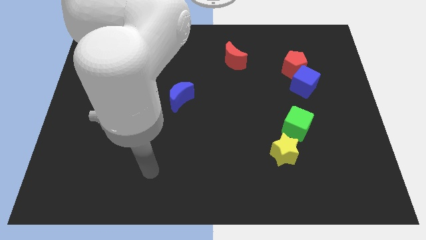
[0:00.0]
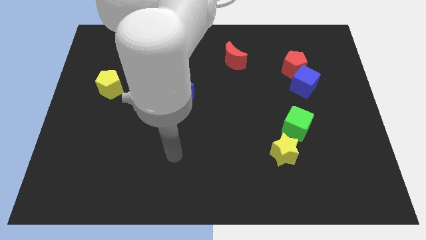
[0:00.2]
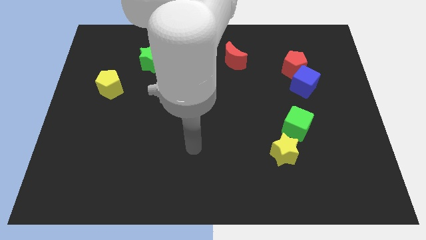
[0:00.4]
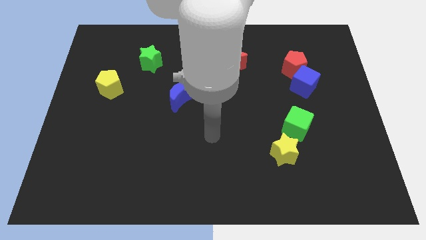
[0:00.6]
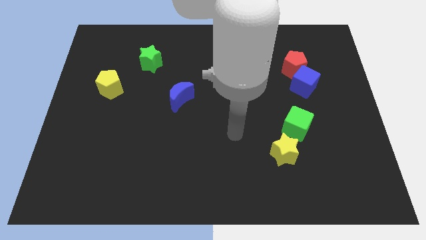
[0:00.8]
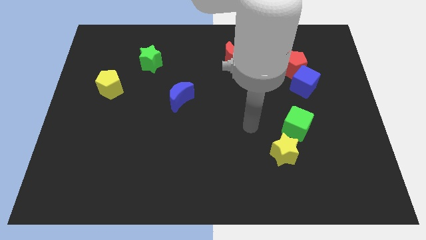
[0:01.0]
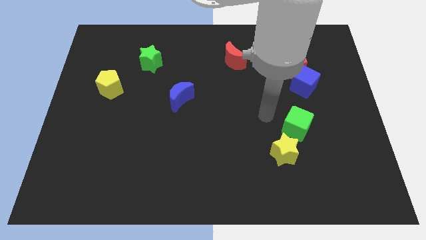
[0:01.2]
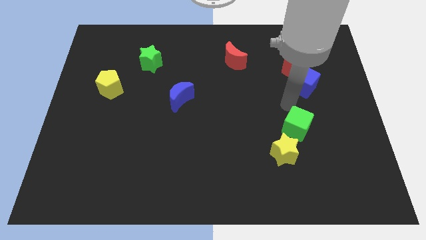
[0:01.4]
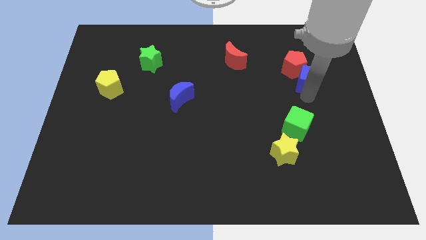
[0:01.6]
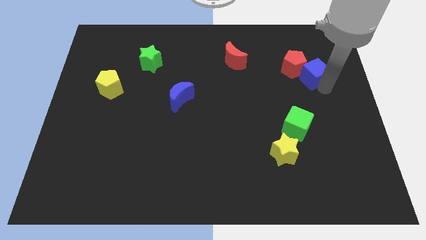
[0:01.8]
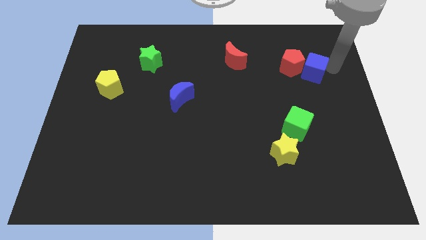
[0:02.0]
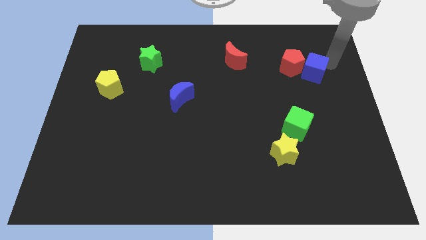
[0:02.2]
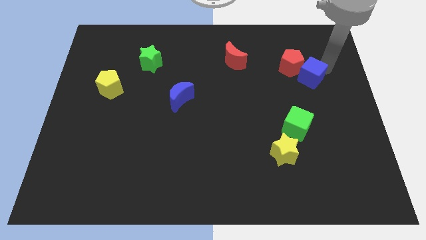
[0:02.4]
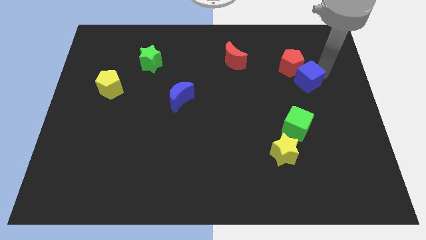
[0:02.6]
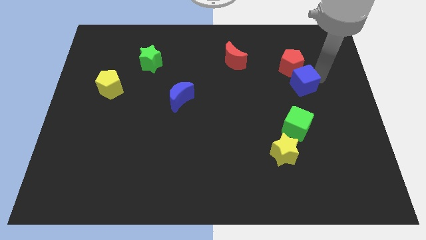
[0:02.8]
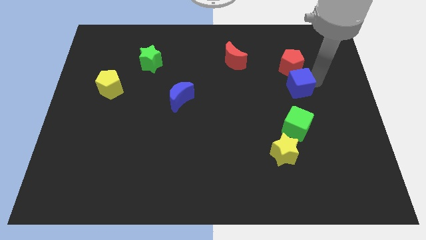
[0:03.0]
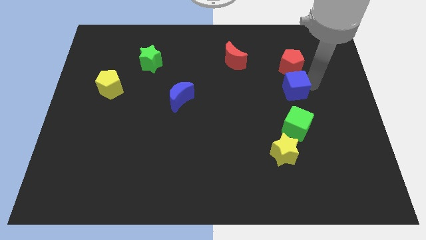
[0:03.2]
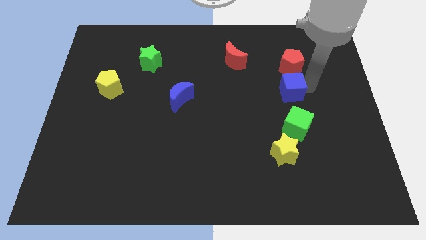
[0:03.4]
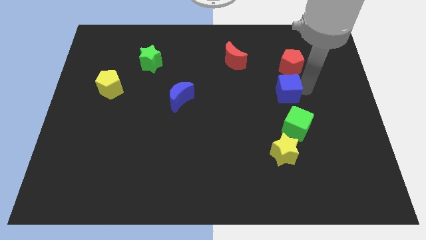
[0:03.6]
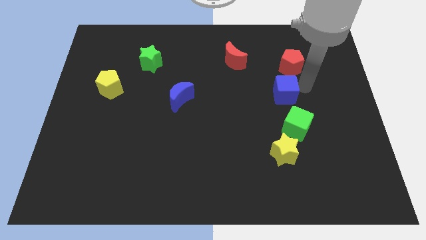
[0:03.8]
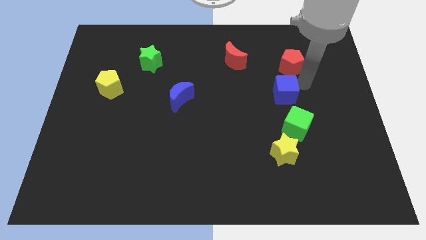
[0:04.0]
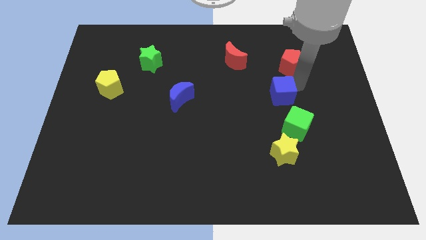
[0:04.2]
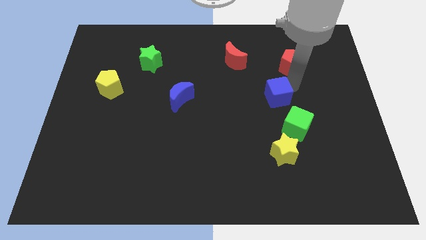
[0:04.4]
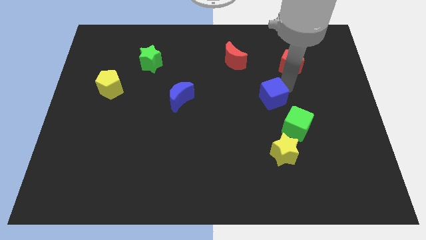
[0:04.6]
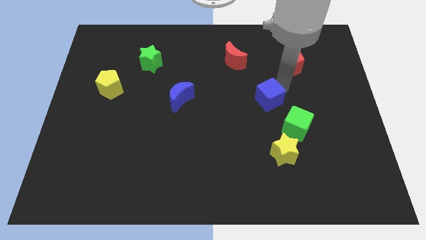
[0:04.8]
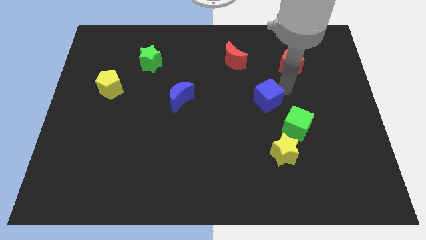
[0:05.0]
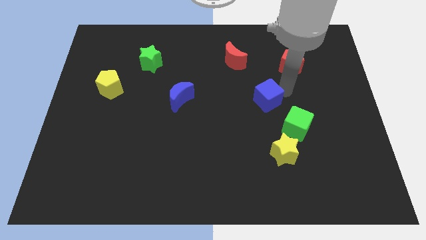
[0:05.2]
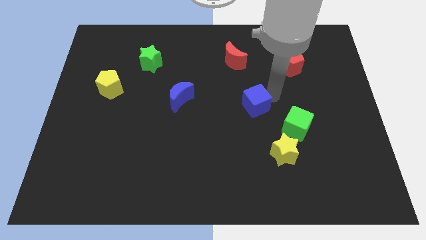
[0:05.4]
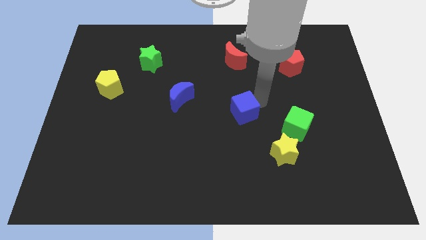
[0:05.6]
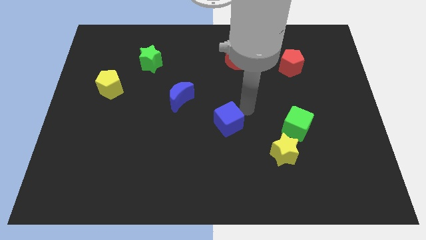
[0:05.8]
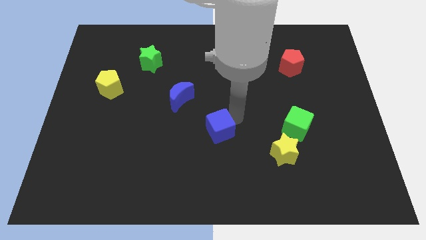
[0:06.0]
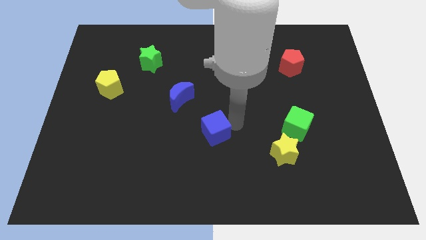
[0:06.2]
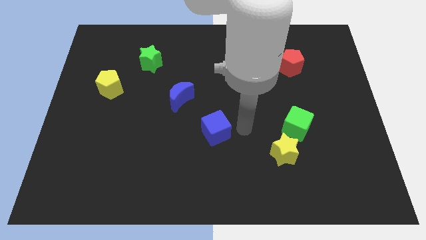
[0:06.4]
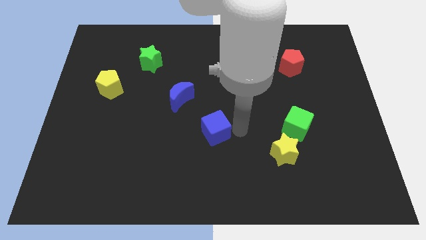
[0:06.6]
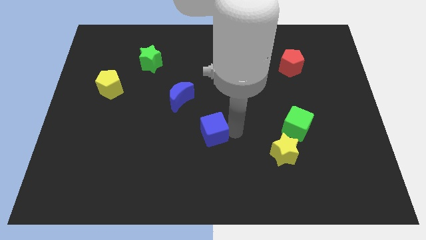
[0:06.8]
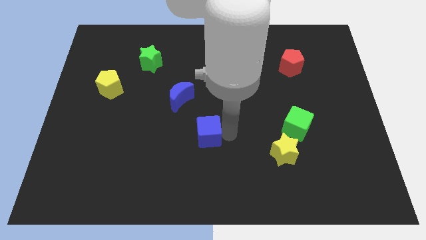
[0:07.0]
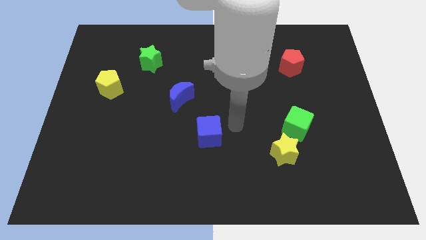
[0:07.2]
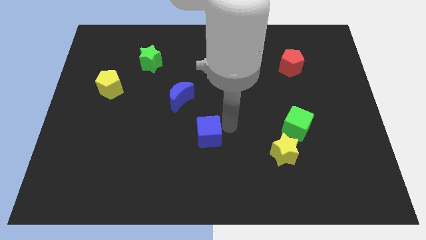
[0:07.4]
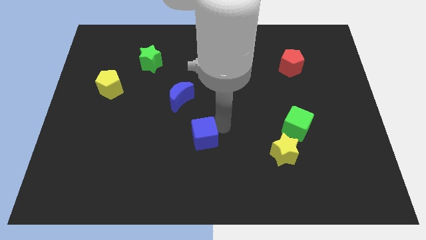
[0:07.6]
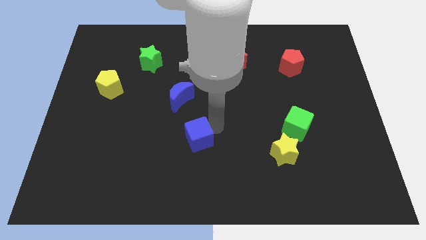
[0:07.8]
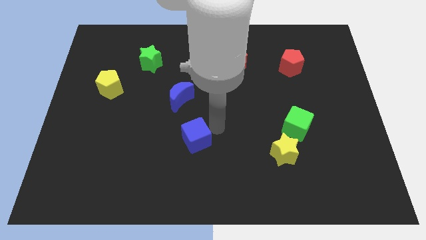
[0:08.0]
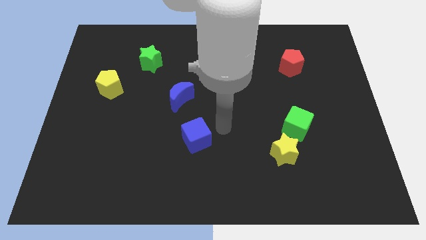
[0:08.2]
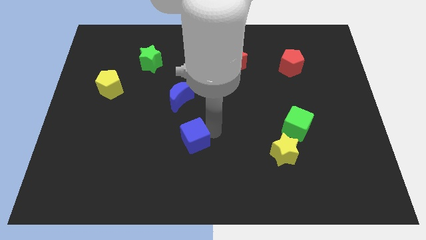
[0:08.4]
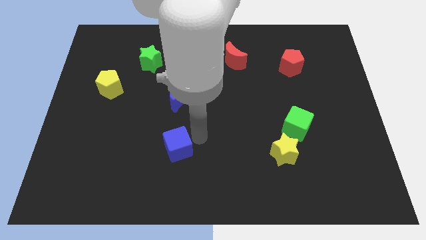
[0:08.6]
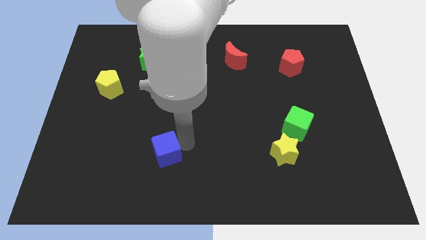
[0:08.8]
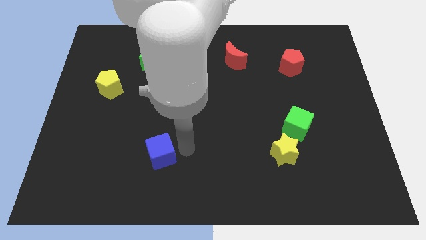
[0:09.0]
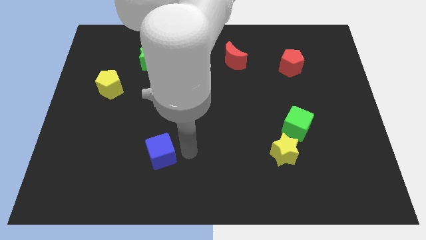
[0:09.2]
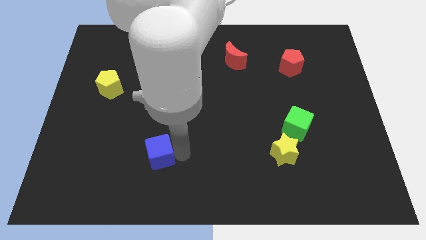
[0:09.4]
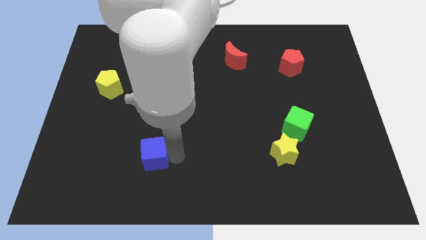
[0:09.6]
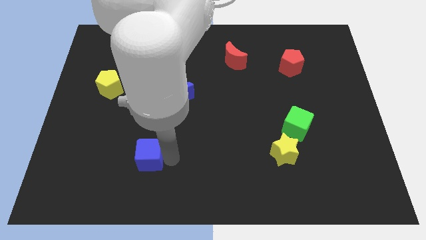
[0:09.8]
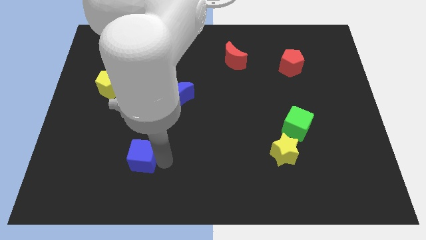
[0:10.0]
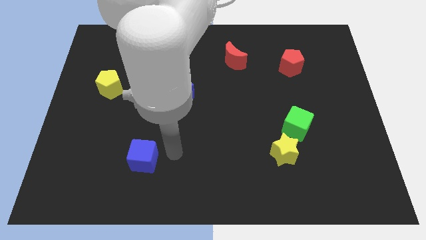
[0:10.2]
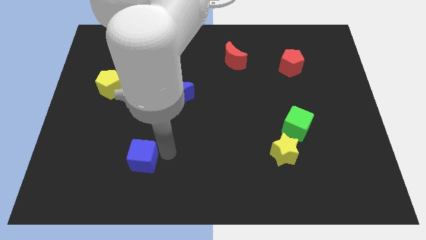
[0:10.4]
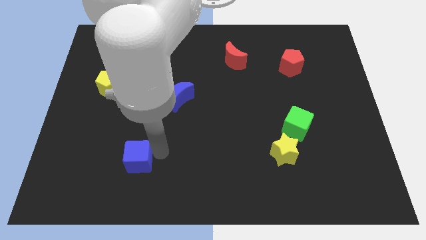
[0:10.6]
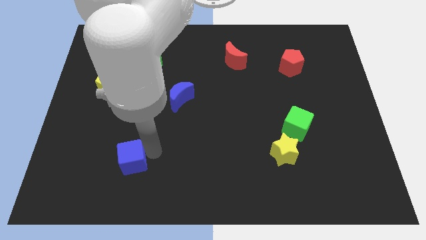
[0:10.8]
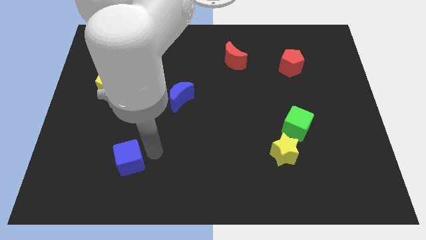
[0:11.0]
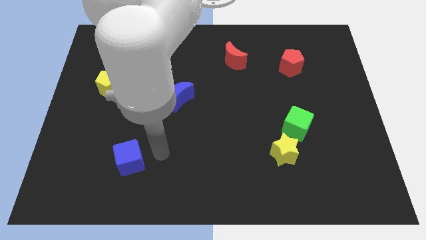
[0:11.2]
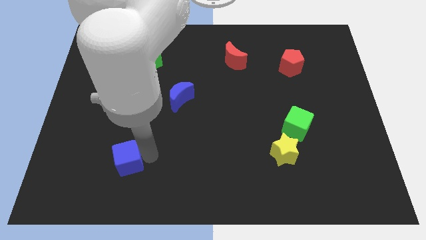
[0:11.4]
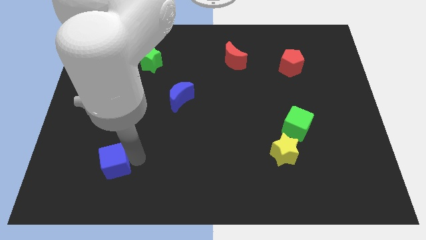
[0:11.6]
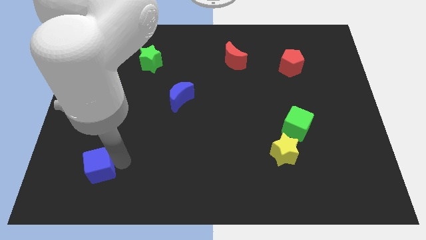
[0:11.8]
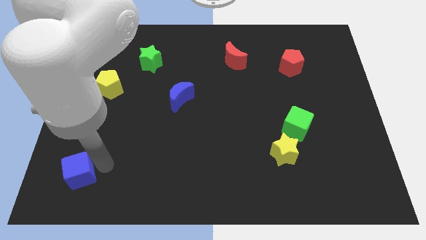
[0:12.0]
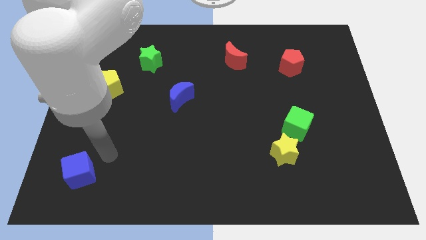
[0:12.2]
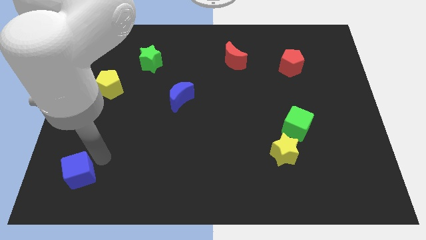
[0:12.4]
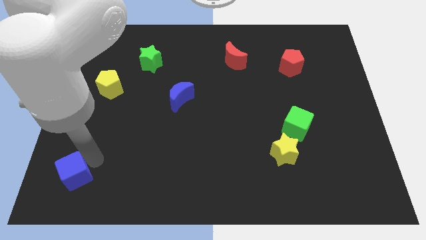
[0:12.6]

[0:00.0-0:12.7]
push the blue cube to the bottom left

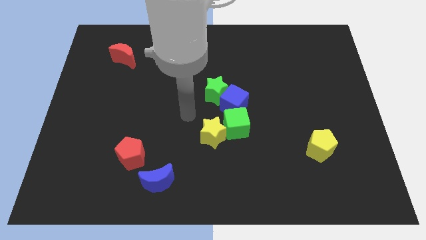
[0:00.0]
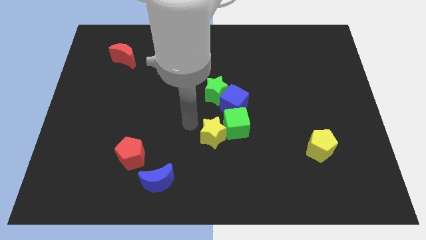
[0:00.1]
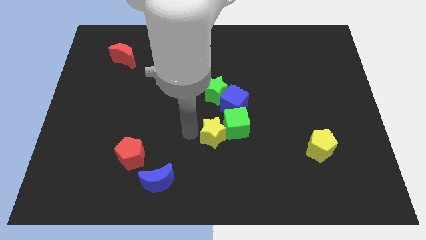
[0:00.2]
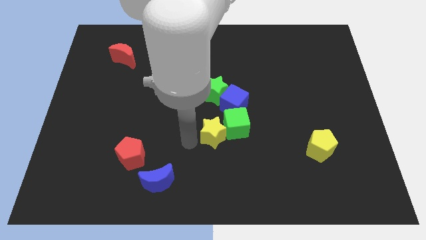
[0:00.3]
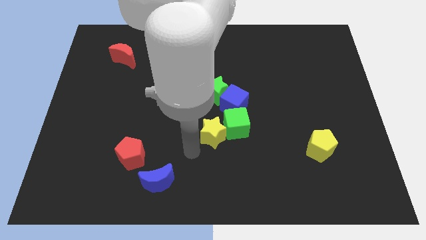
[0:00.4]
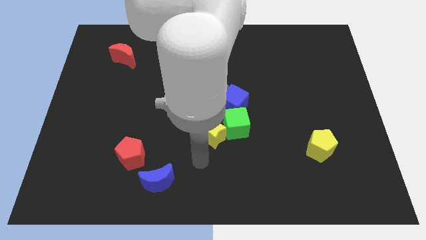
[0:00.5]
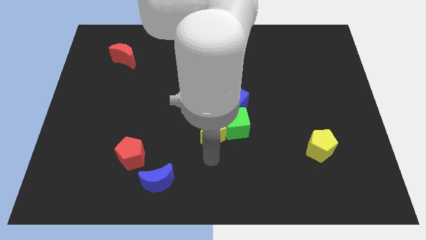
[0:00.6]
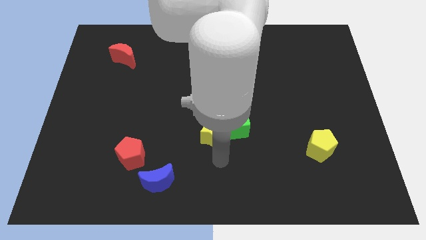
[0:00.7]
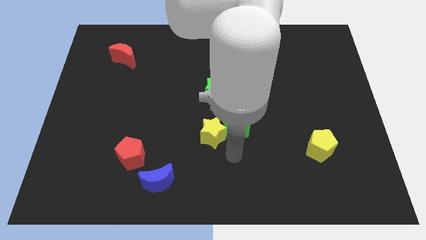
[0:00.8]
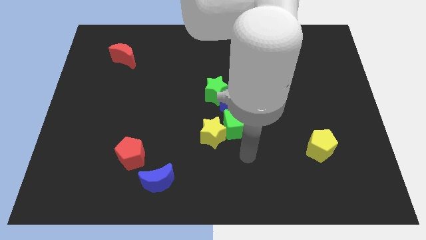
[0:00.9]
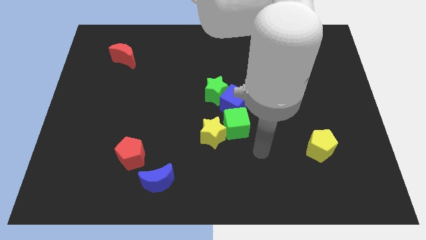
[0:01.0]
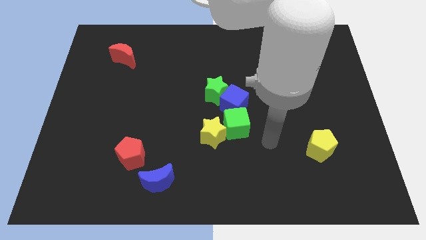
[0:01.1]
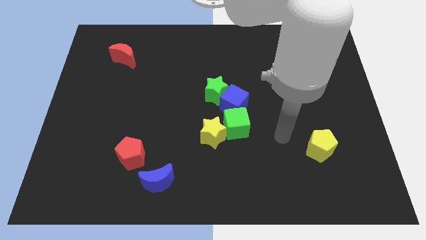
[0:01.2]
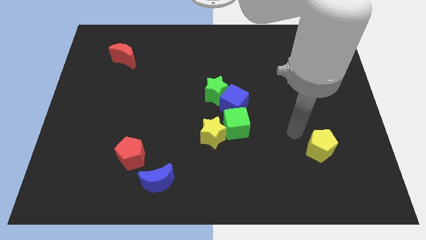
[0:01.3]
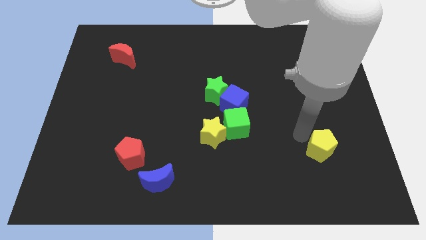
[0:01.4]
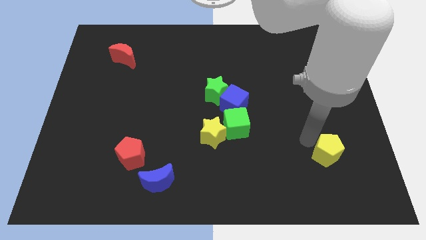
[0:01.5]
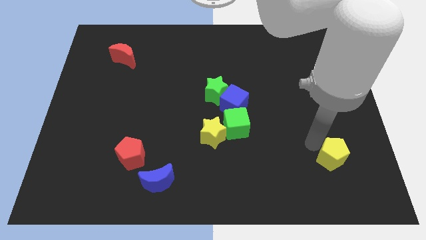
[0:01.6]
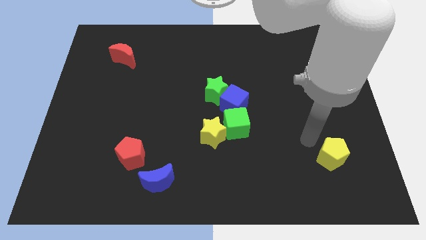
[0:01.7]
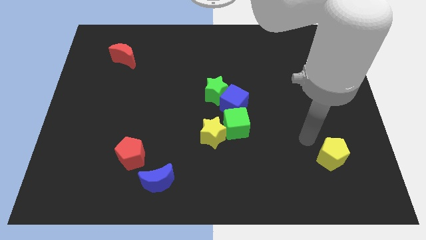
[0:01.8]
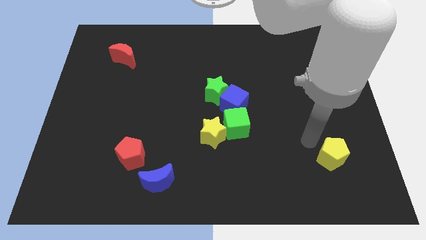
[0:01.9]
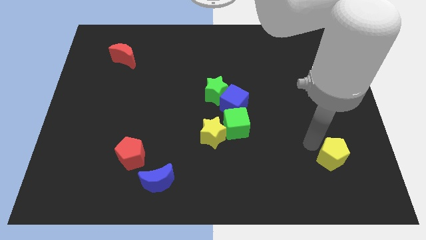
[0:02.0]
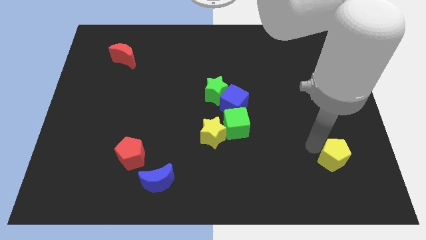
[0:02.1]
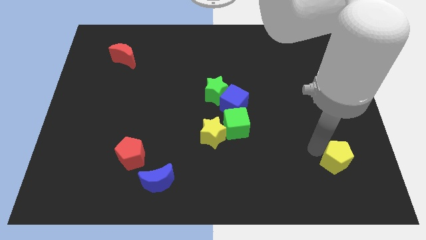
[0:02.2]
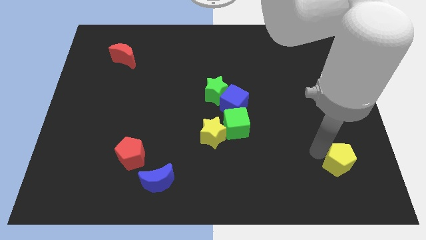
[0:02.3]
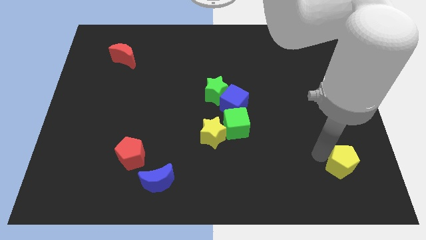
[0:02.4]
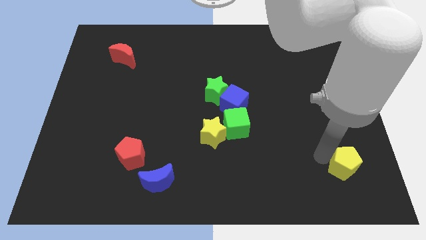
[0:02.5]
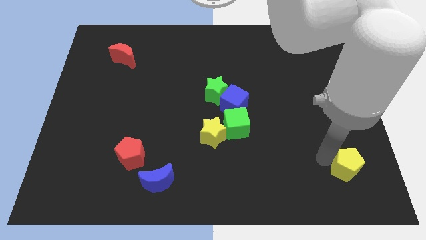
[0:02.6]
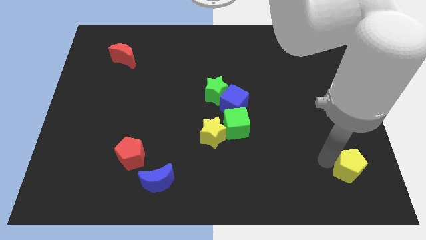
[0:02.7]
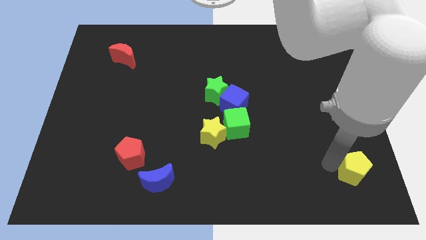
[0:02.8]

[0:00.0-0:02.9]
put the yellow pentagon to the lower right corner
